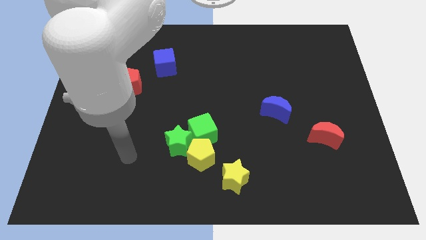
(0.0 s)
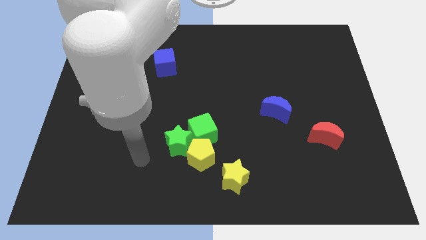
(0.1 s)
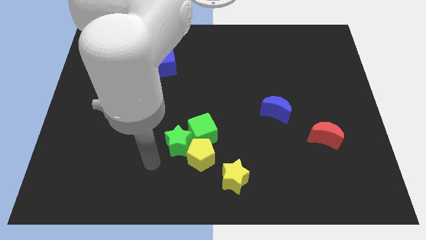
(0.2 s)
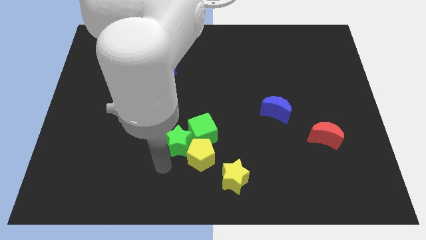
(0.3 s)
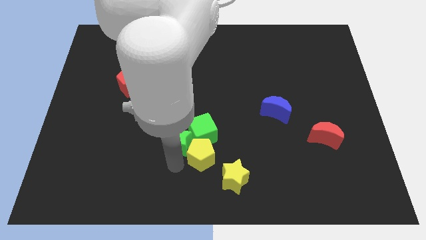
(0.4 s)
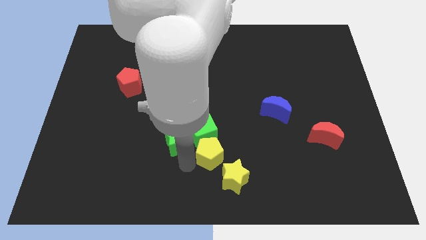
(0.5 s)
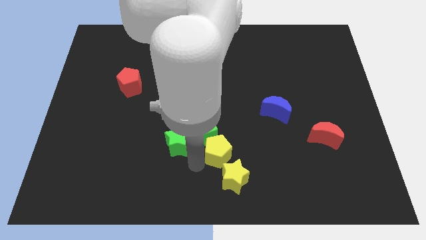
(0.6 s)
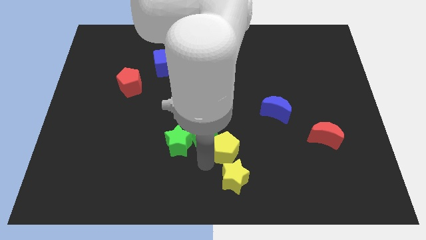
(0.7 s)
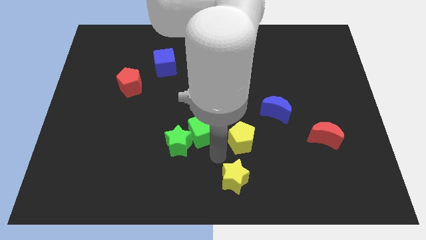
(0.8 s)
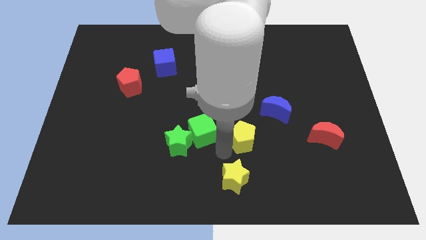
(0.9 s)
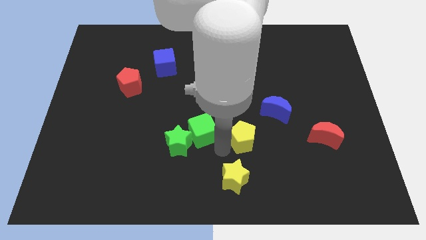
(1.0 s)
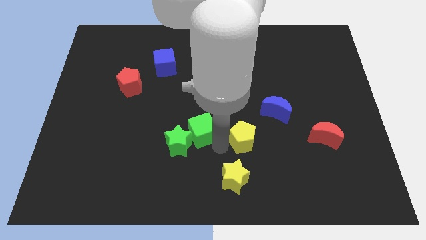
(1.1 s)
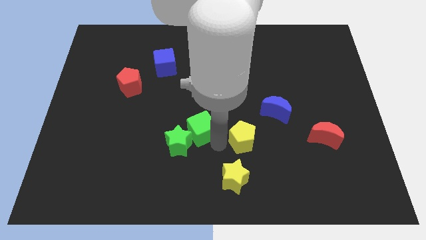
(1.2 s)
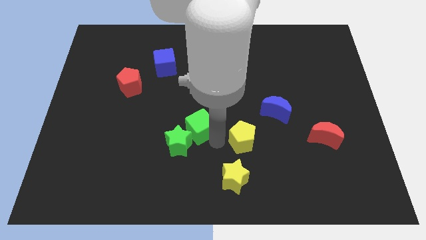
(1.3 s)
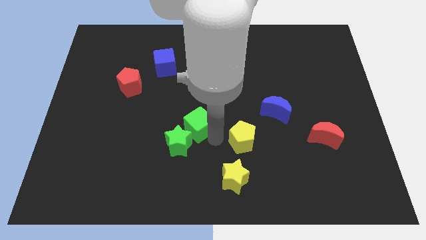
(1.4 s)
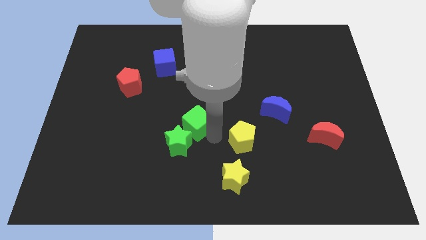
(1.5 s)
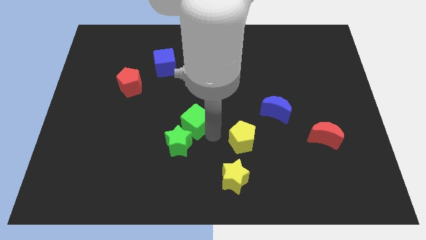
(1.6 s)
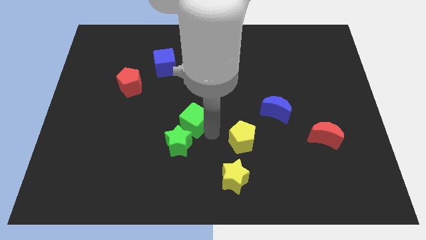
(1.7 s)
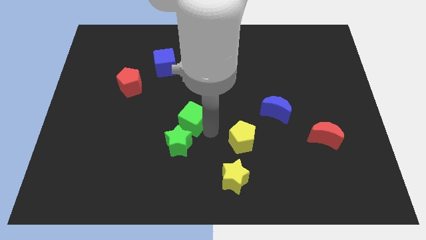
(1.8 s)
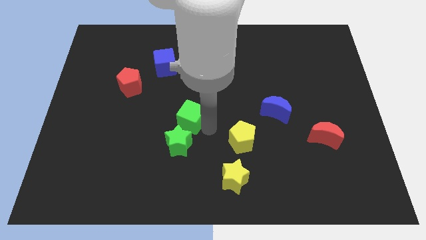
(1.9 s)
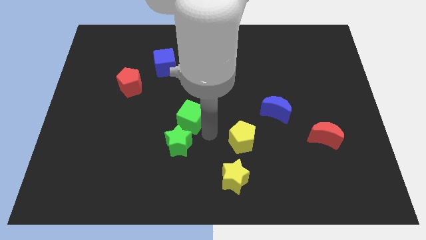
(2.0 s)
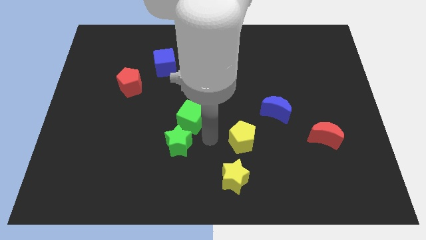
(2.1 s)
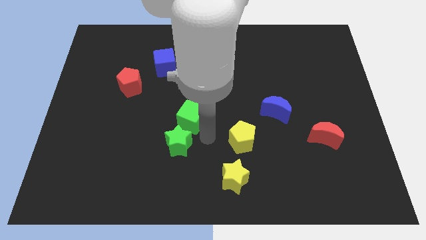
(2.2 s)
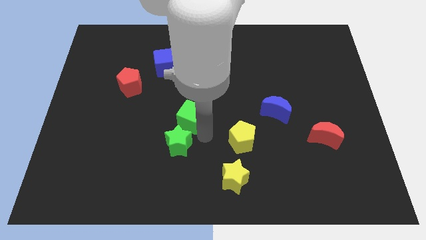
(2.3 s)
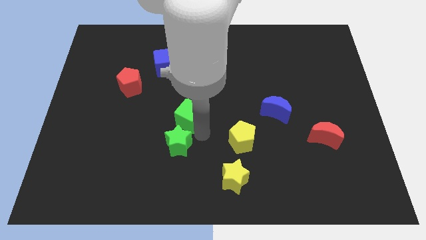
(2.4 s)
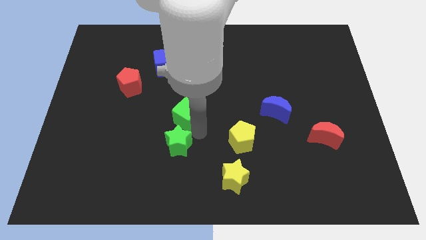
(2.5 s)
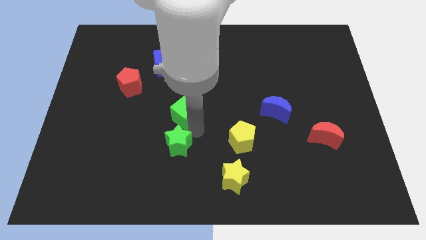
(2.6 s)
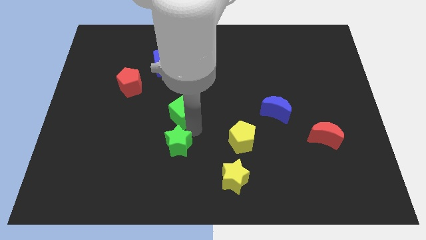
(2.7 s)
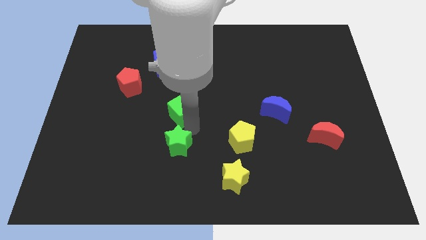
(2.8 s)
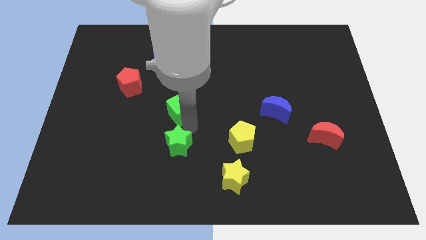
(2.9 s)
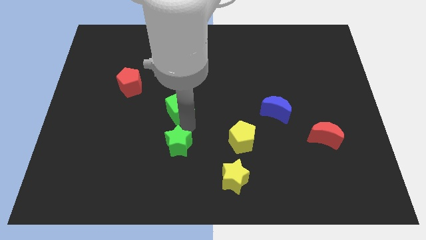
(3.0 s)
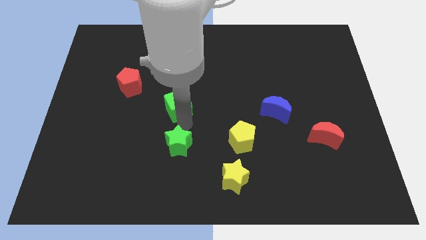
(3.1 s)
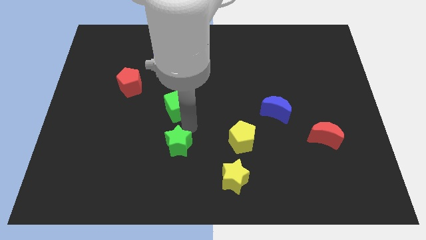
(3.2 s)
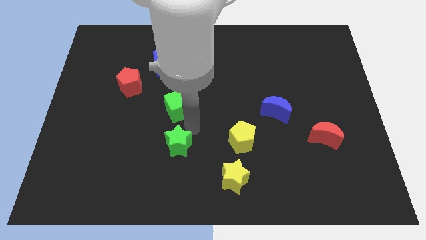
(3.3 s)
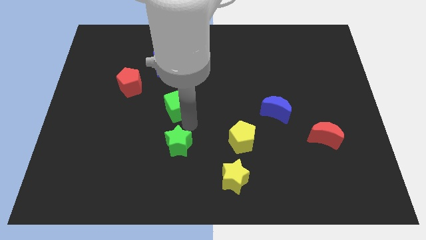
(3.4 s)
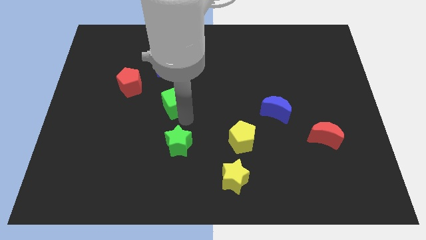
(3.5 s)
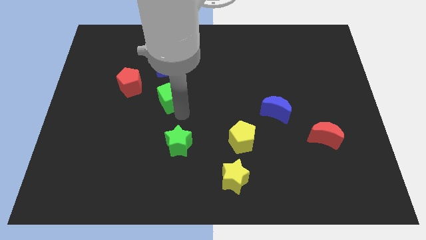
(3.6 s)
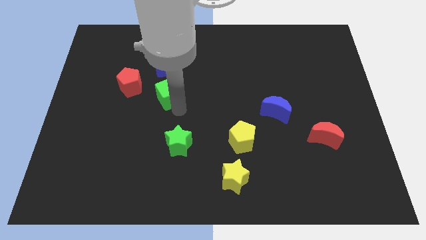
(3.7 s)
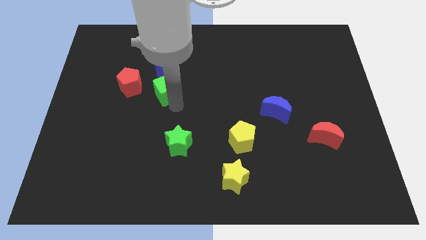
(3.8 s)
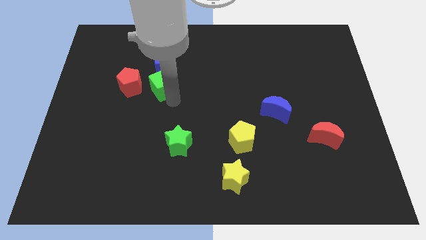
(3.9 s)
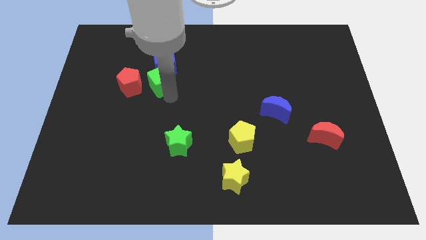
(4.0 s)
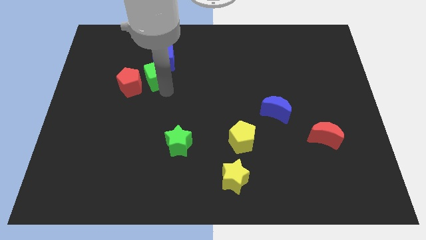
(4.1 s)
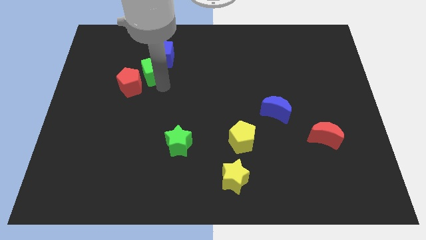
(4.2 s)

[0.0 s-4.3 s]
slide the green cube upwards and to the left

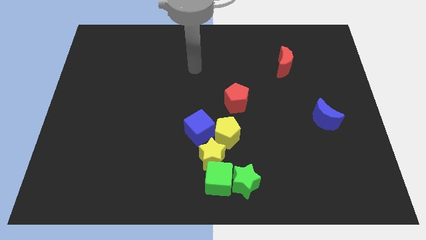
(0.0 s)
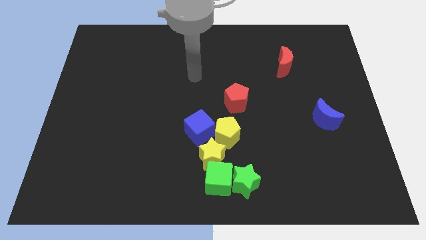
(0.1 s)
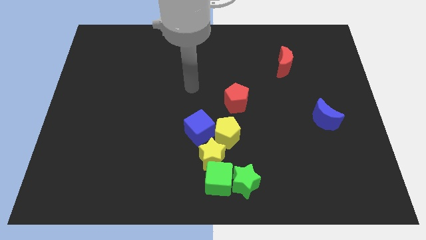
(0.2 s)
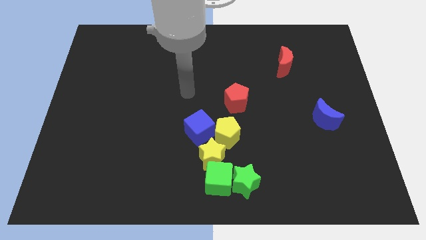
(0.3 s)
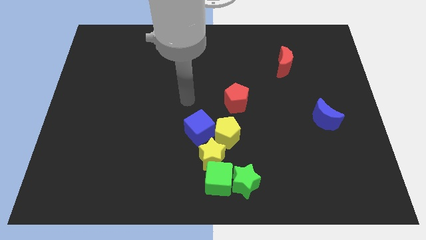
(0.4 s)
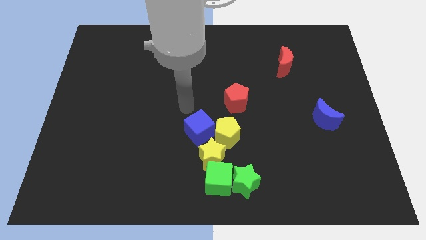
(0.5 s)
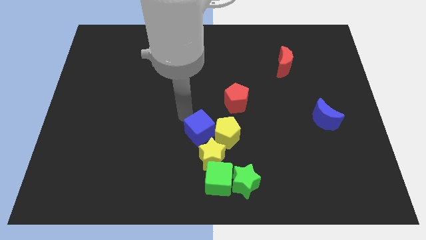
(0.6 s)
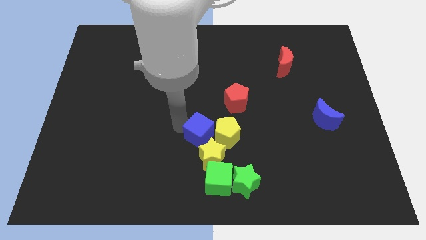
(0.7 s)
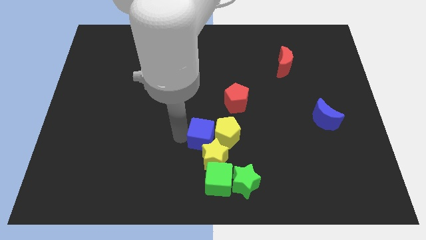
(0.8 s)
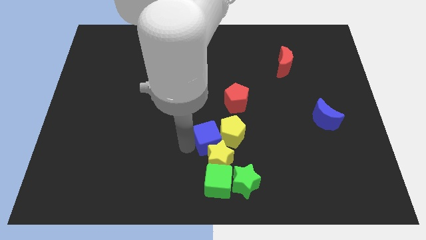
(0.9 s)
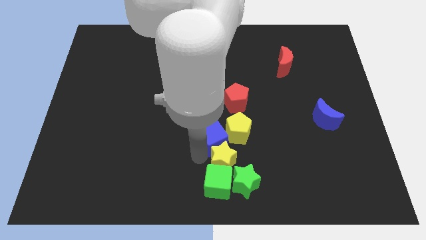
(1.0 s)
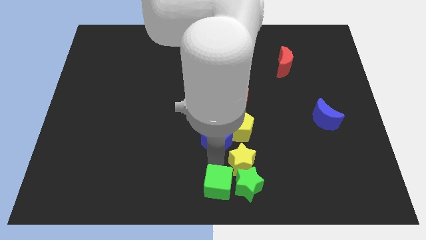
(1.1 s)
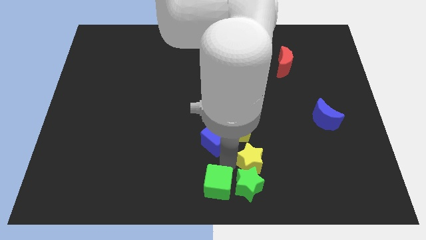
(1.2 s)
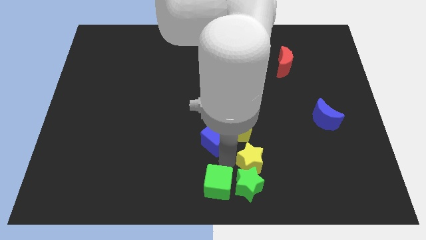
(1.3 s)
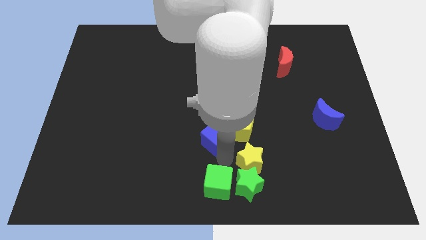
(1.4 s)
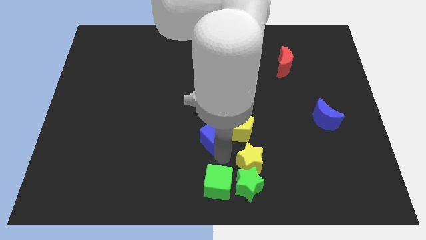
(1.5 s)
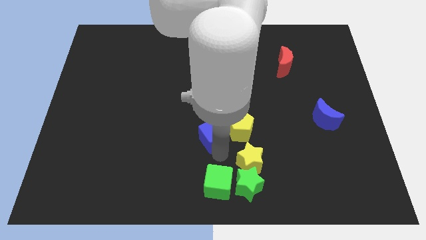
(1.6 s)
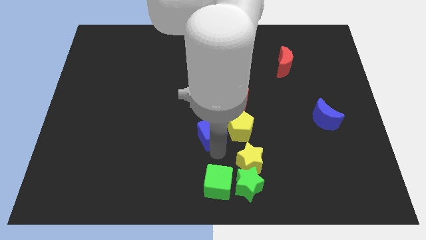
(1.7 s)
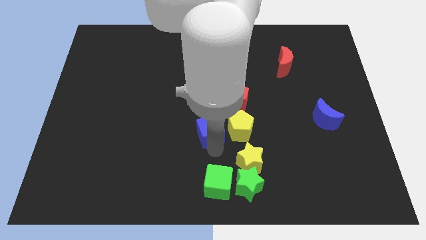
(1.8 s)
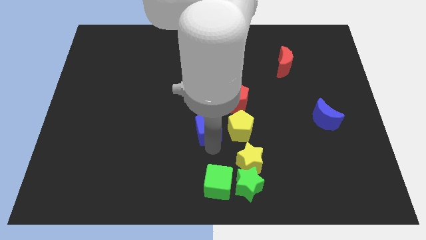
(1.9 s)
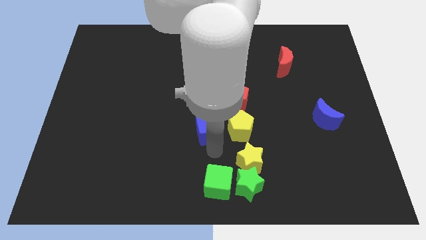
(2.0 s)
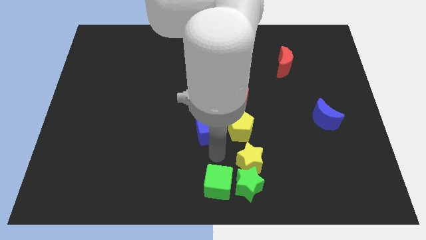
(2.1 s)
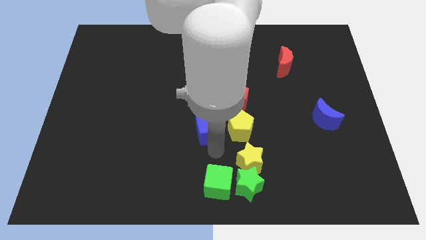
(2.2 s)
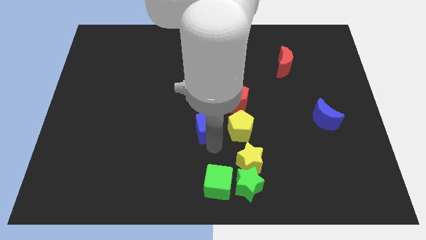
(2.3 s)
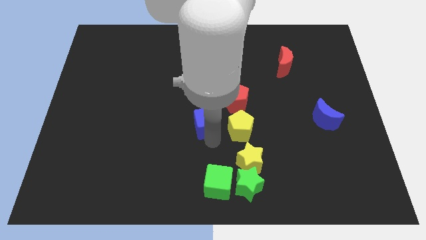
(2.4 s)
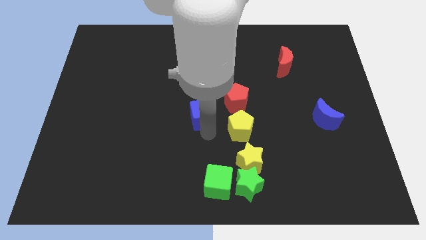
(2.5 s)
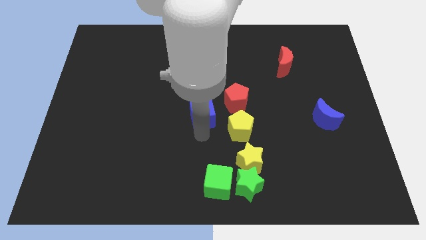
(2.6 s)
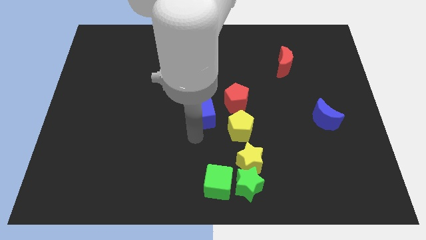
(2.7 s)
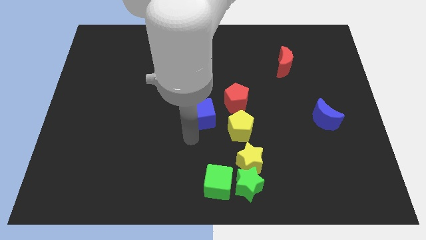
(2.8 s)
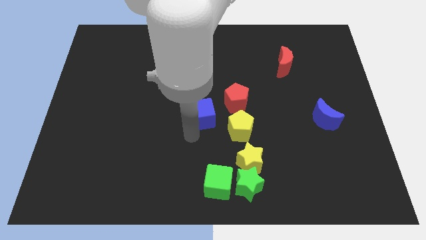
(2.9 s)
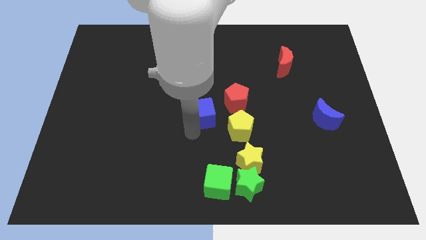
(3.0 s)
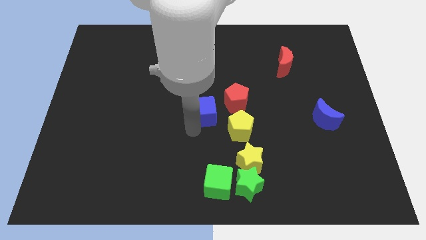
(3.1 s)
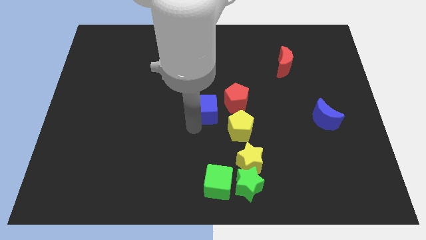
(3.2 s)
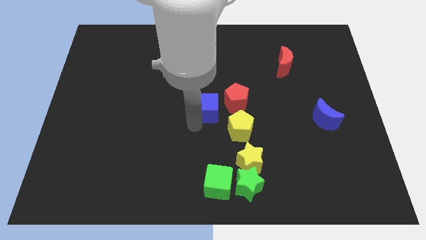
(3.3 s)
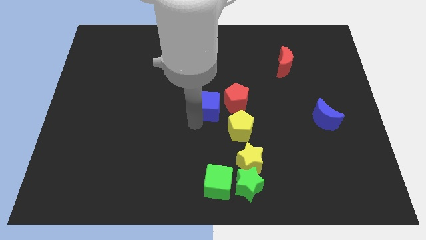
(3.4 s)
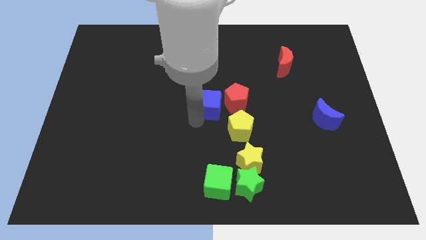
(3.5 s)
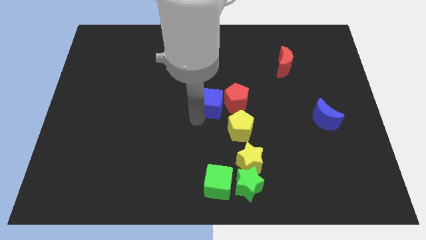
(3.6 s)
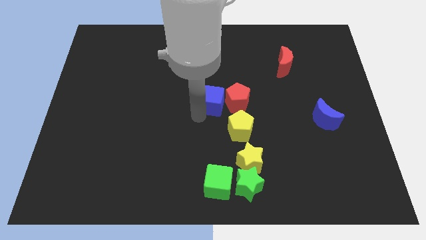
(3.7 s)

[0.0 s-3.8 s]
move the blue cube diagonally up and right a little bit
